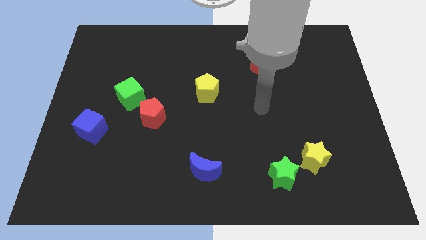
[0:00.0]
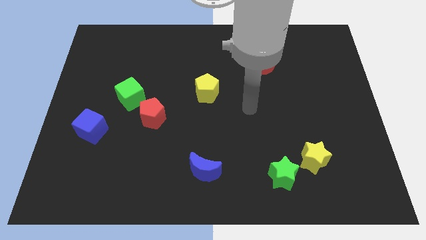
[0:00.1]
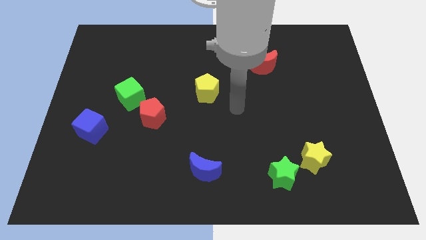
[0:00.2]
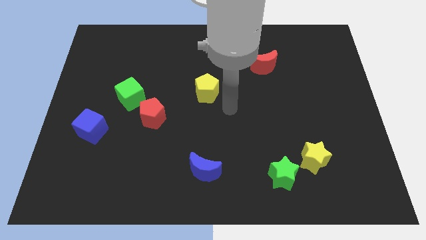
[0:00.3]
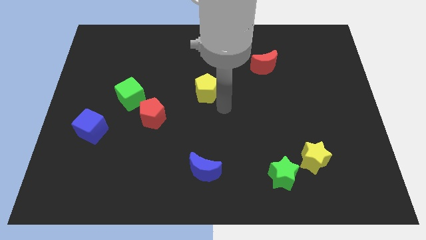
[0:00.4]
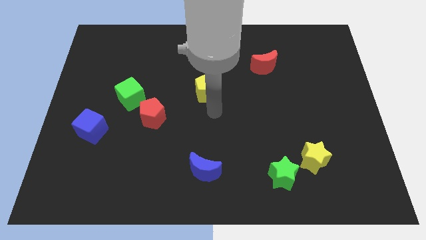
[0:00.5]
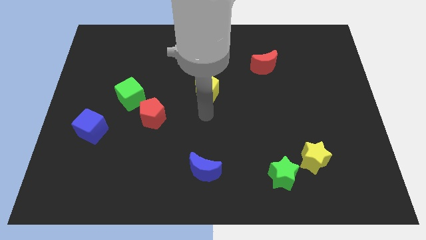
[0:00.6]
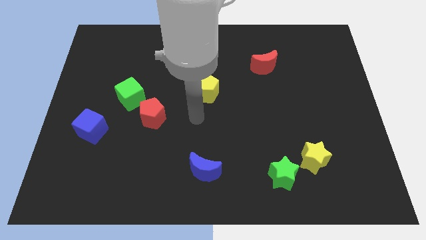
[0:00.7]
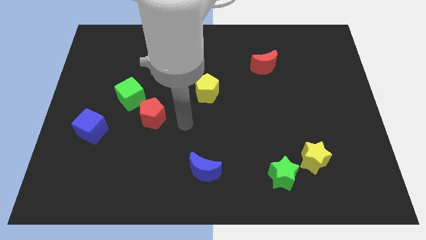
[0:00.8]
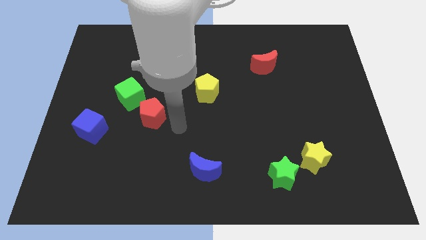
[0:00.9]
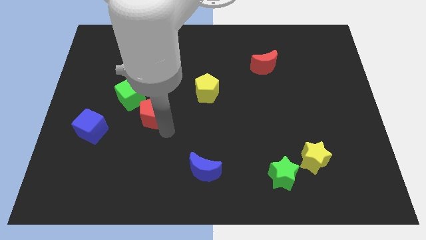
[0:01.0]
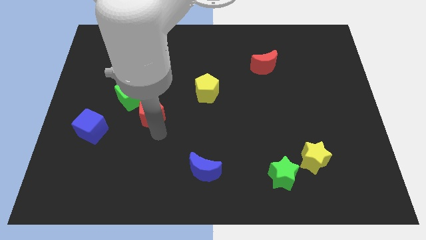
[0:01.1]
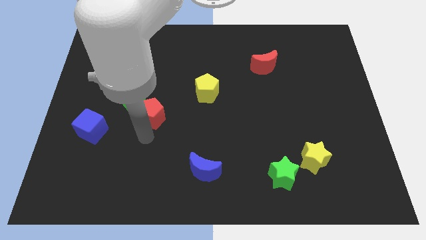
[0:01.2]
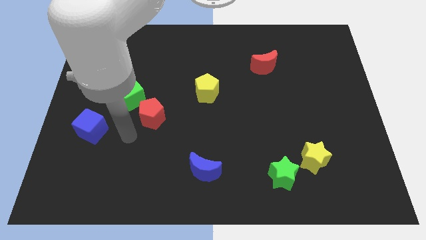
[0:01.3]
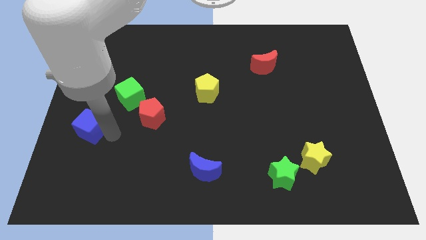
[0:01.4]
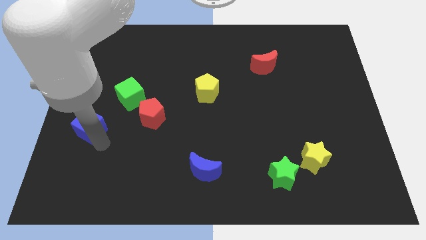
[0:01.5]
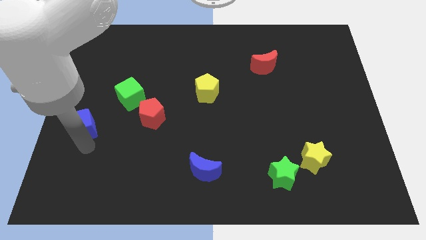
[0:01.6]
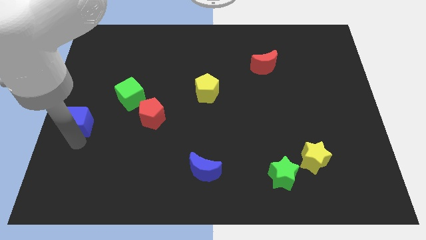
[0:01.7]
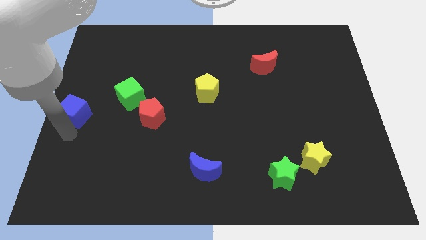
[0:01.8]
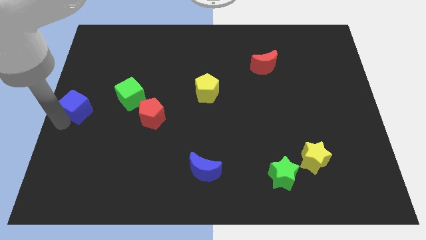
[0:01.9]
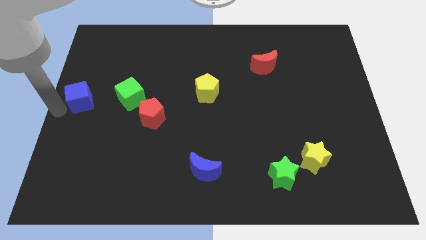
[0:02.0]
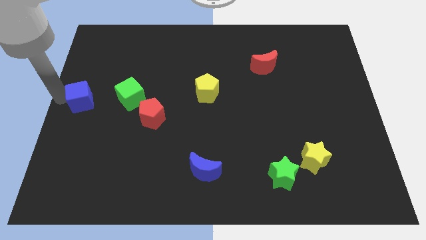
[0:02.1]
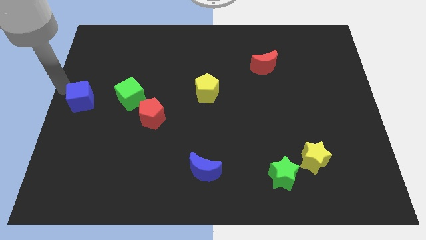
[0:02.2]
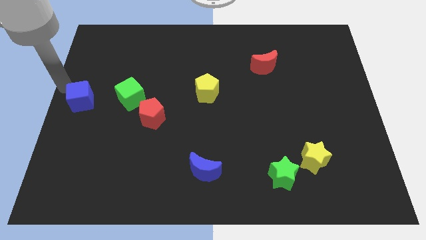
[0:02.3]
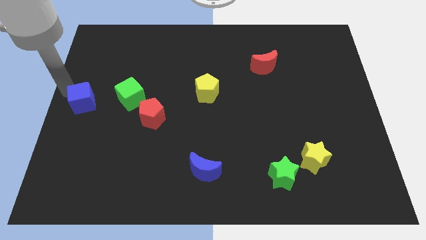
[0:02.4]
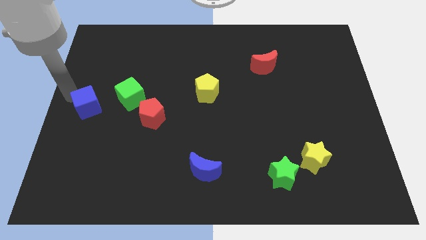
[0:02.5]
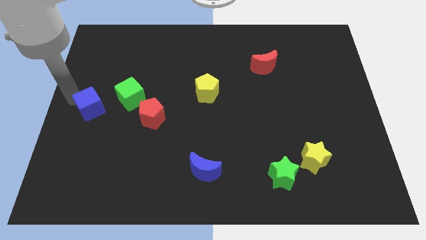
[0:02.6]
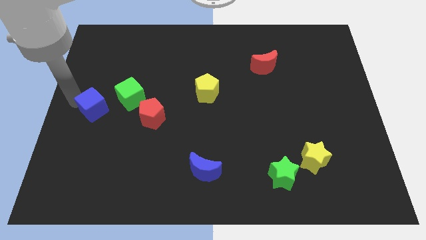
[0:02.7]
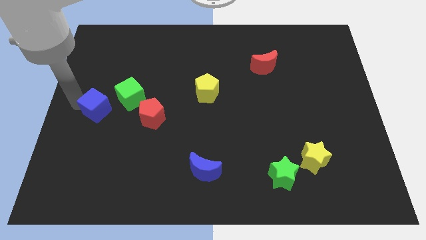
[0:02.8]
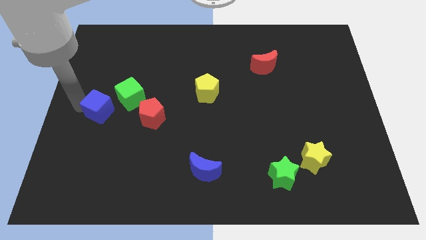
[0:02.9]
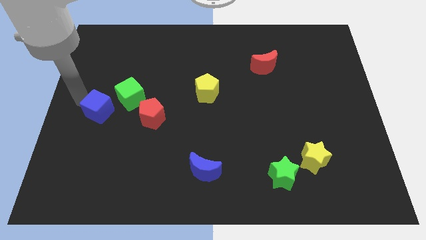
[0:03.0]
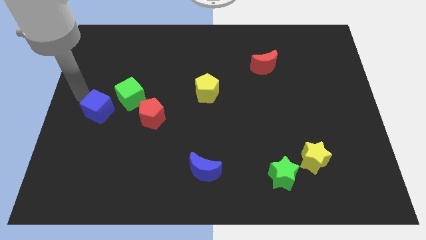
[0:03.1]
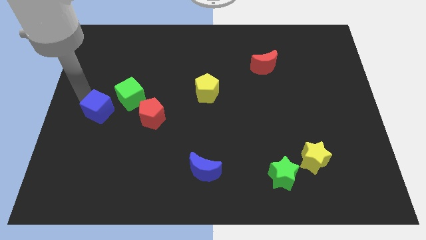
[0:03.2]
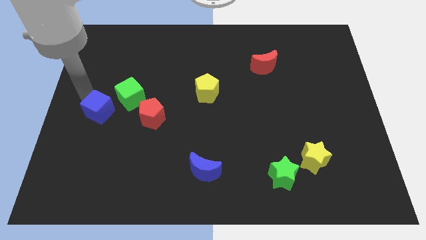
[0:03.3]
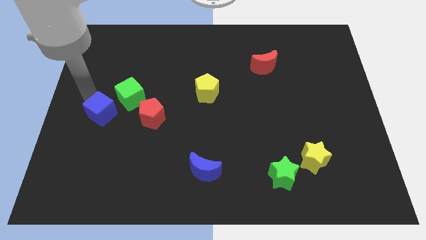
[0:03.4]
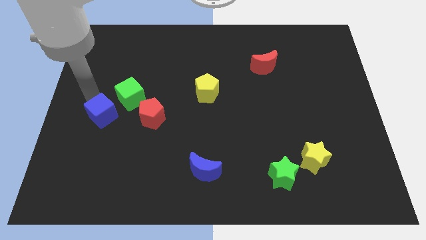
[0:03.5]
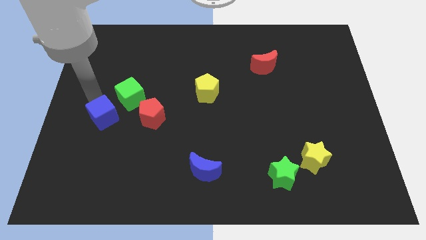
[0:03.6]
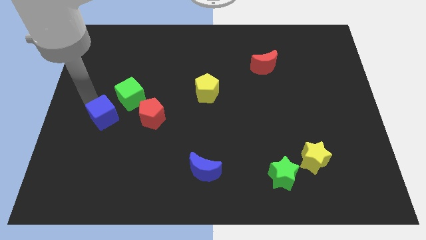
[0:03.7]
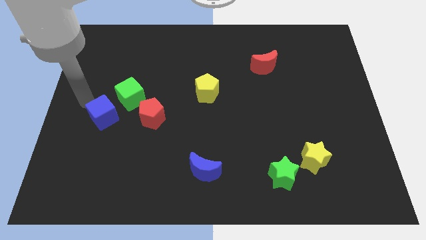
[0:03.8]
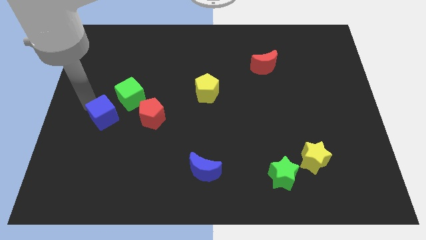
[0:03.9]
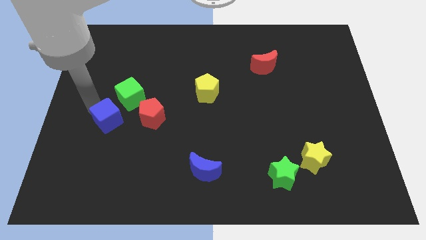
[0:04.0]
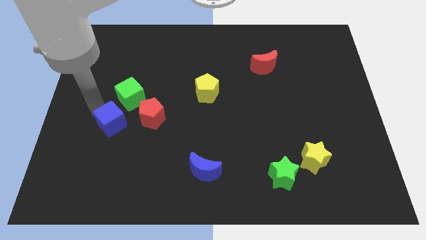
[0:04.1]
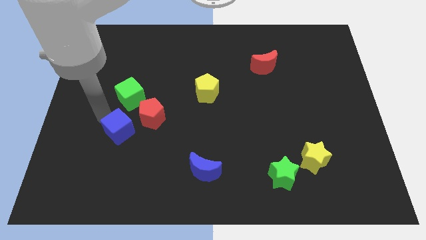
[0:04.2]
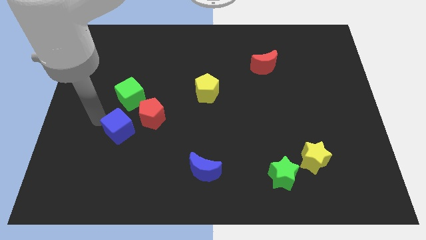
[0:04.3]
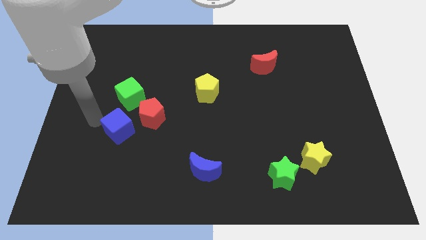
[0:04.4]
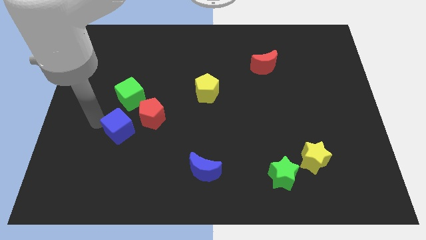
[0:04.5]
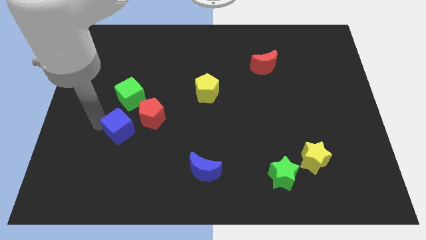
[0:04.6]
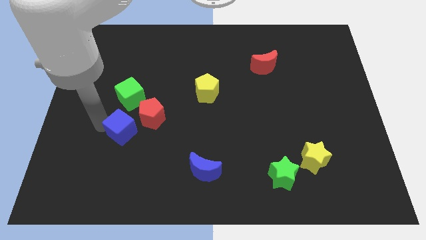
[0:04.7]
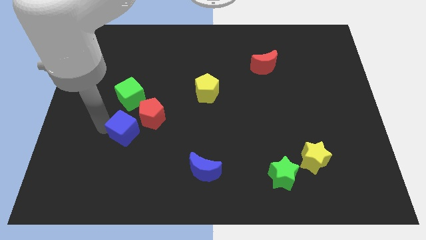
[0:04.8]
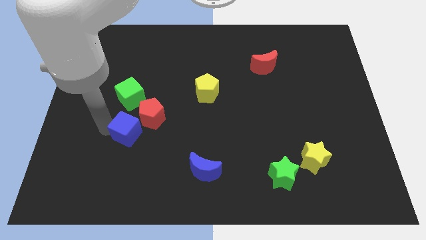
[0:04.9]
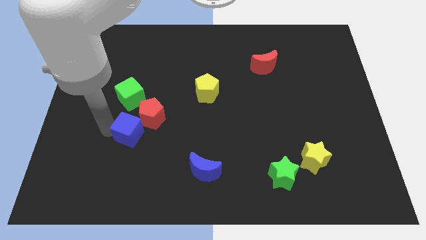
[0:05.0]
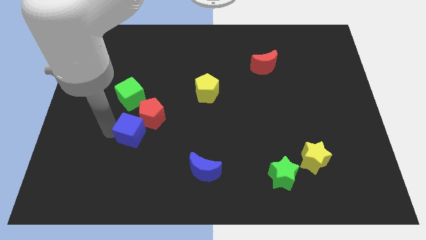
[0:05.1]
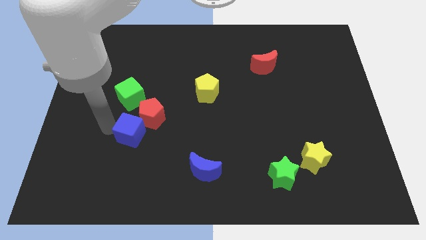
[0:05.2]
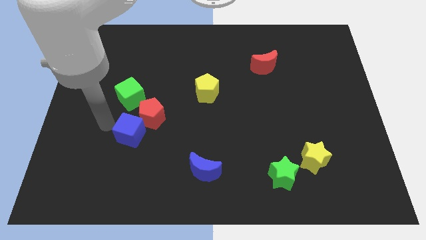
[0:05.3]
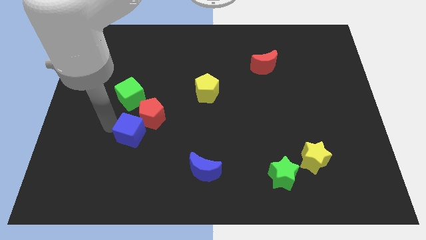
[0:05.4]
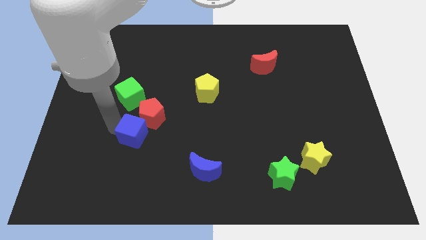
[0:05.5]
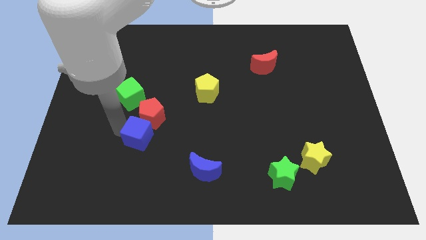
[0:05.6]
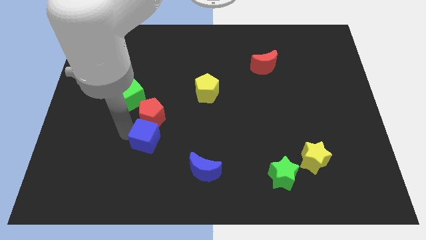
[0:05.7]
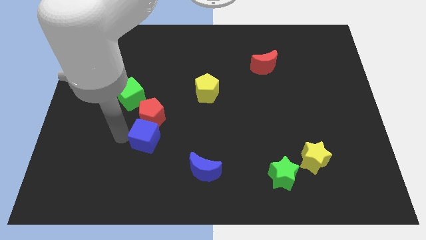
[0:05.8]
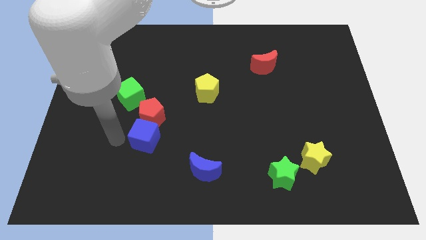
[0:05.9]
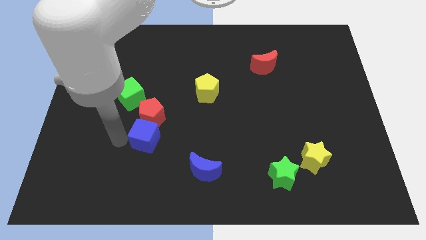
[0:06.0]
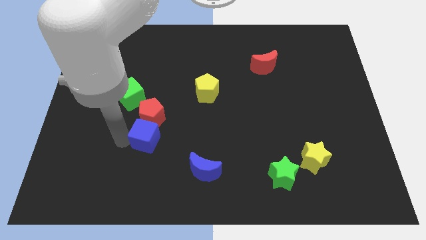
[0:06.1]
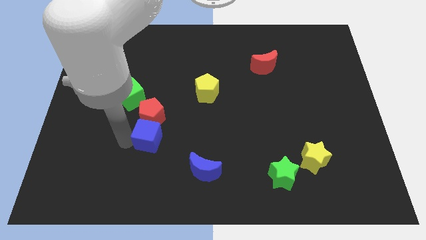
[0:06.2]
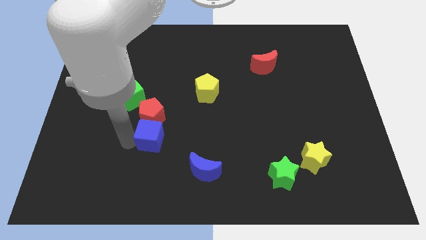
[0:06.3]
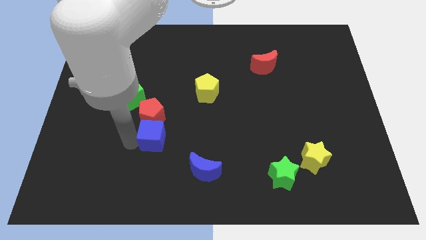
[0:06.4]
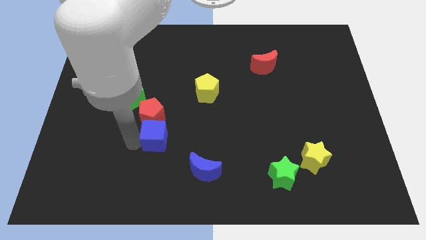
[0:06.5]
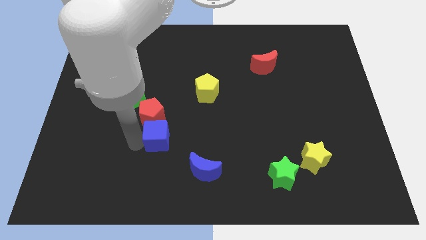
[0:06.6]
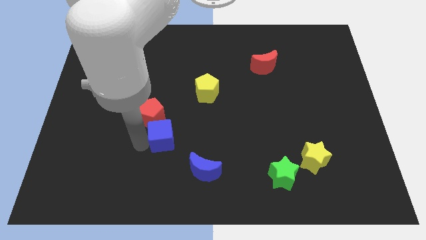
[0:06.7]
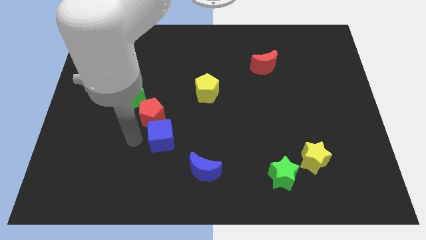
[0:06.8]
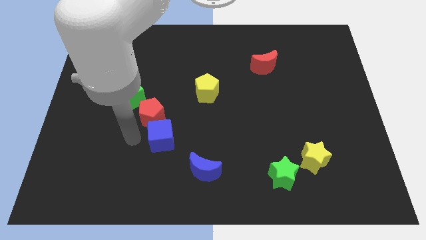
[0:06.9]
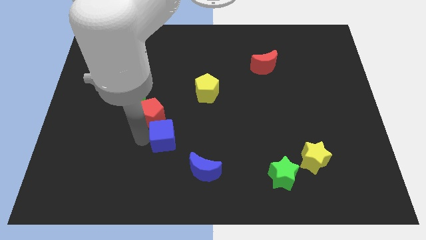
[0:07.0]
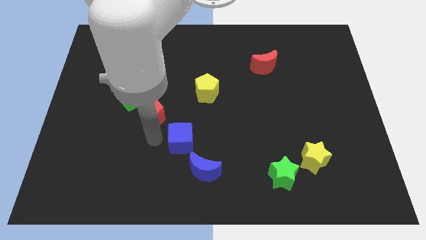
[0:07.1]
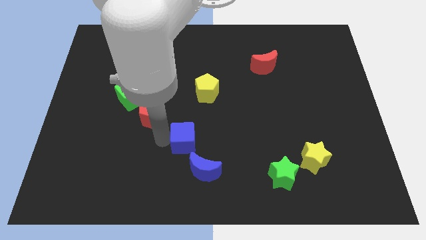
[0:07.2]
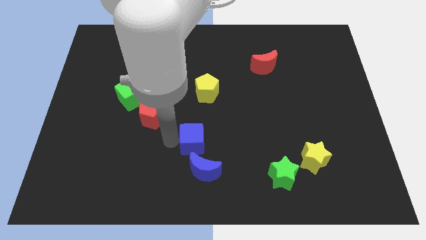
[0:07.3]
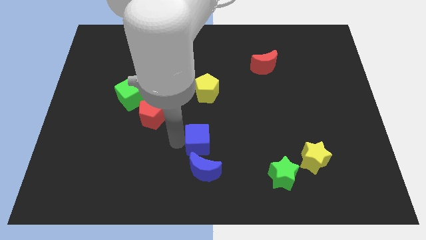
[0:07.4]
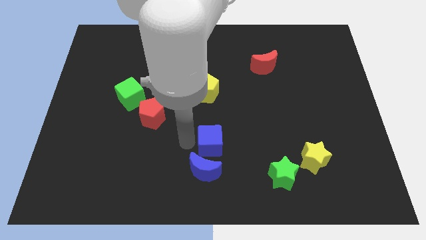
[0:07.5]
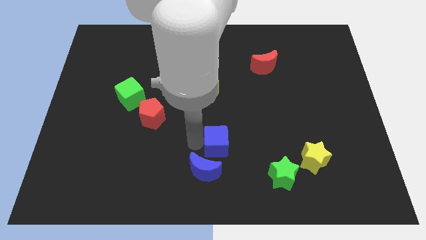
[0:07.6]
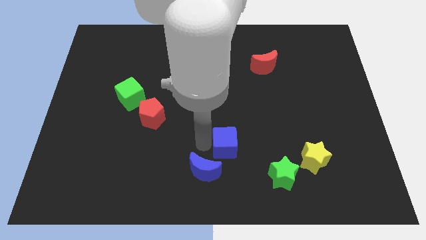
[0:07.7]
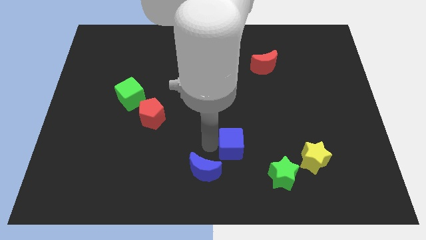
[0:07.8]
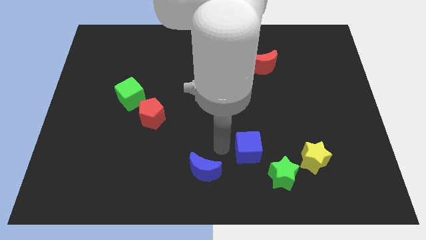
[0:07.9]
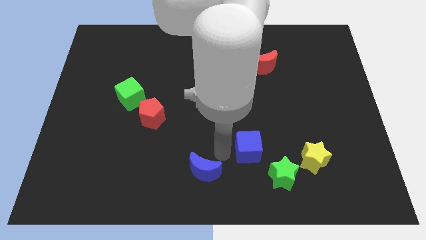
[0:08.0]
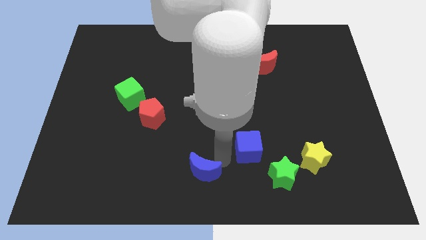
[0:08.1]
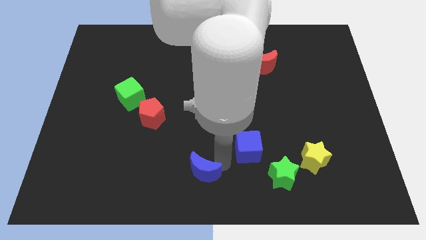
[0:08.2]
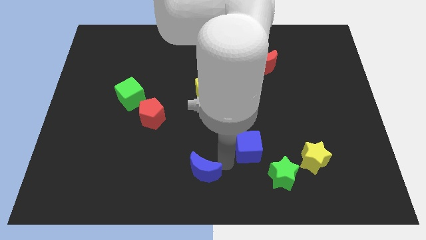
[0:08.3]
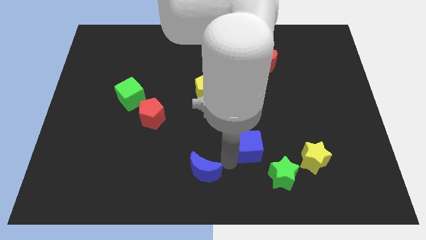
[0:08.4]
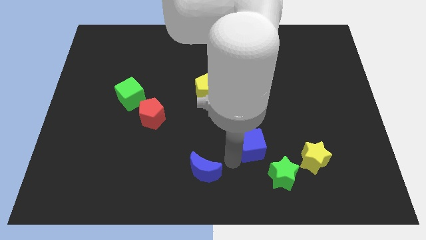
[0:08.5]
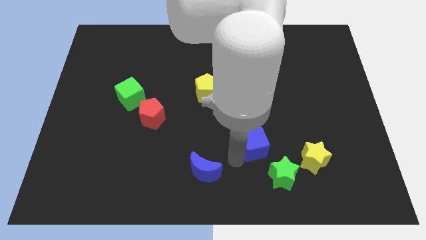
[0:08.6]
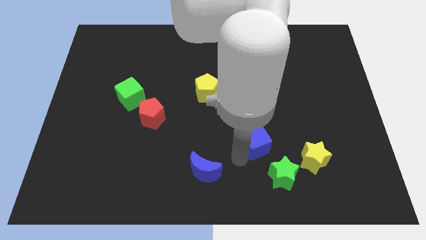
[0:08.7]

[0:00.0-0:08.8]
put the blue cube to the top side of the green star
